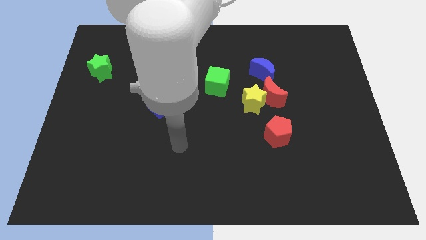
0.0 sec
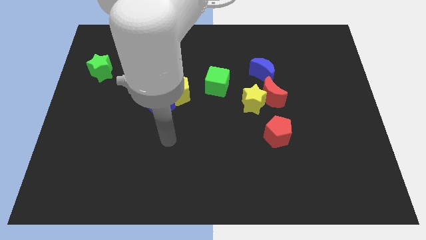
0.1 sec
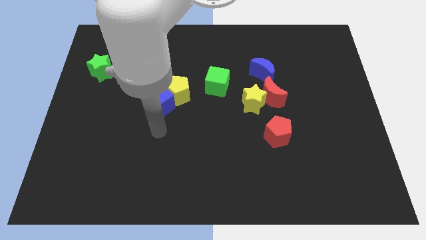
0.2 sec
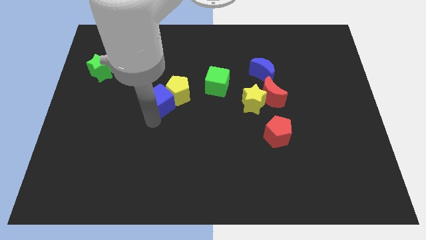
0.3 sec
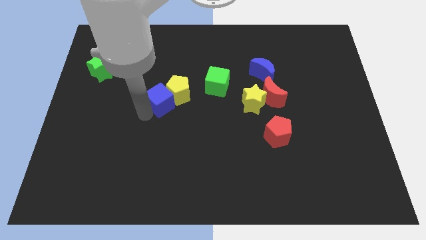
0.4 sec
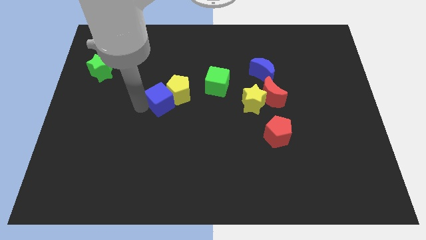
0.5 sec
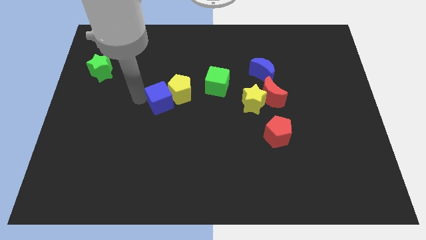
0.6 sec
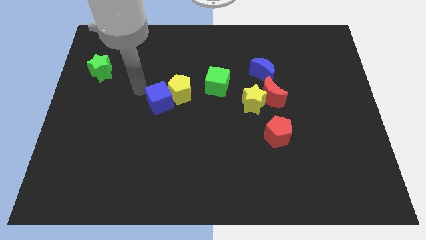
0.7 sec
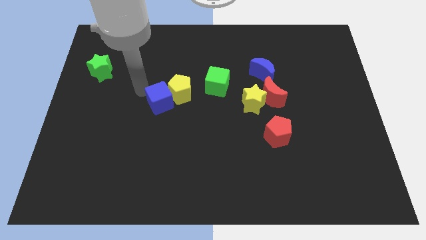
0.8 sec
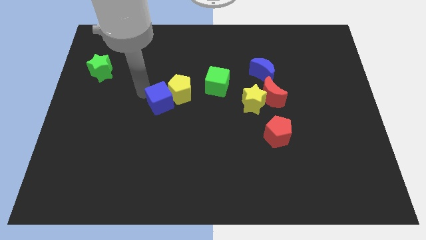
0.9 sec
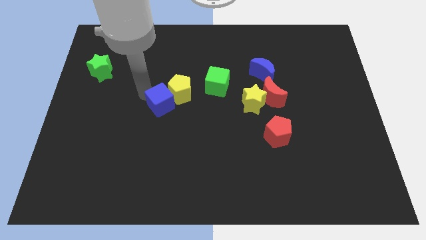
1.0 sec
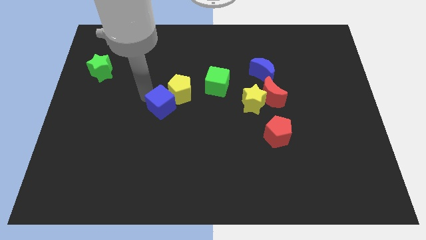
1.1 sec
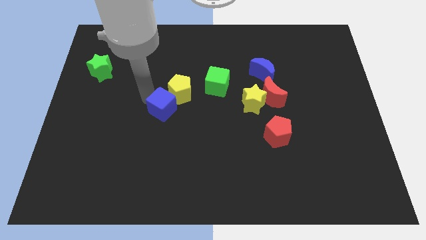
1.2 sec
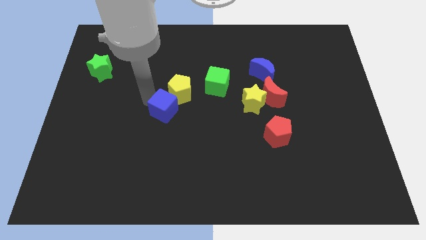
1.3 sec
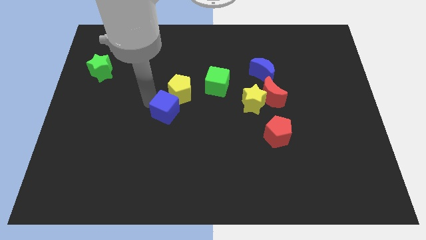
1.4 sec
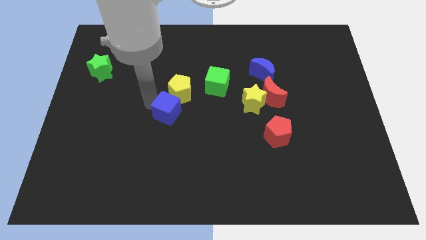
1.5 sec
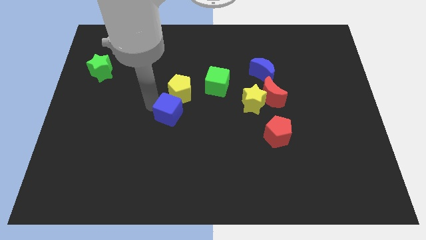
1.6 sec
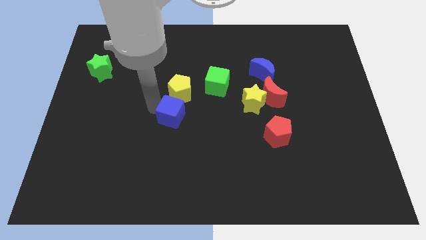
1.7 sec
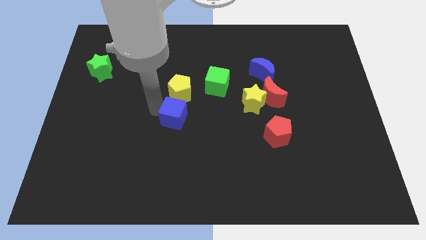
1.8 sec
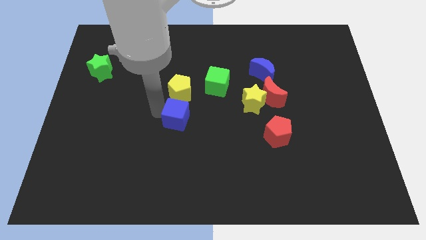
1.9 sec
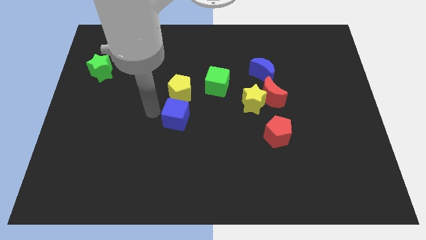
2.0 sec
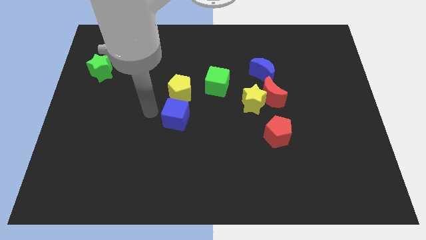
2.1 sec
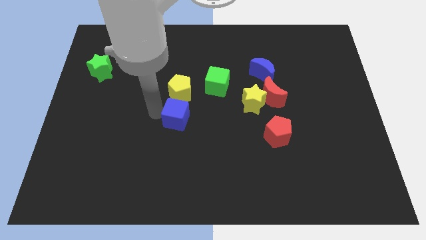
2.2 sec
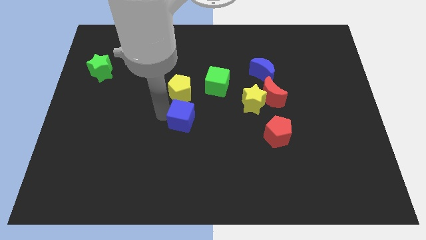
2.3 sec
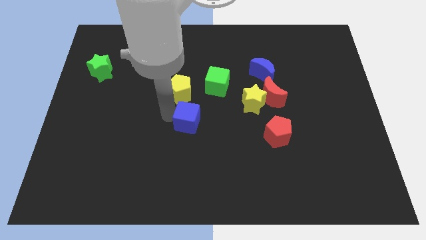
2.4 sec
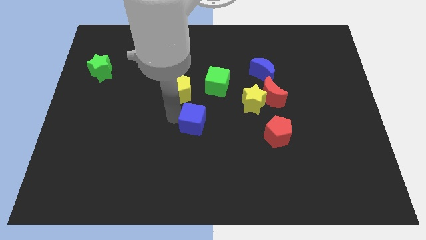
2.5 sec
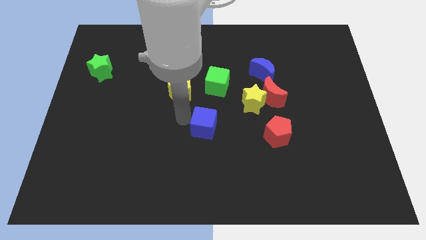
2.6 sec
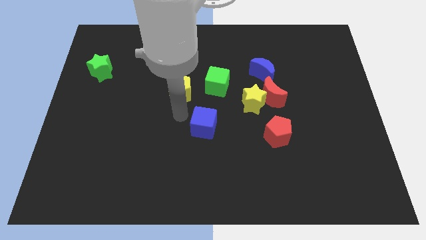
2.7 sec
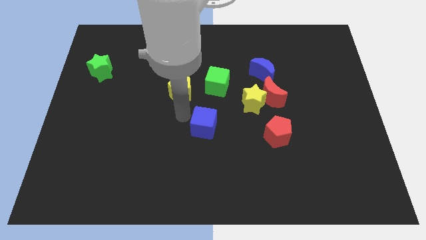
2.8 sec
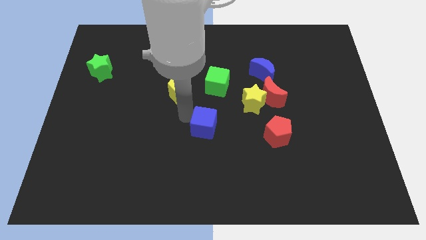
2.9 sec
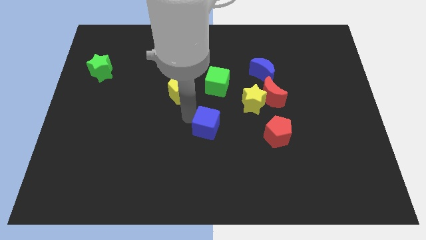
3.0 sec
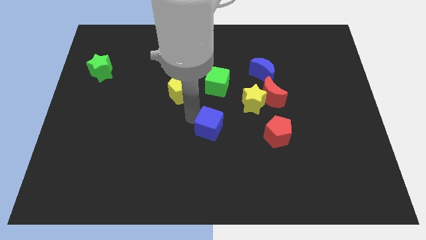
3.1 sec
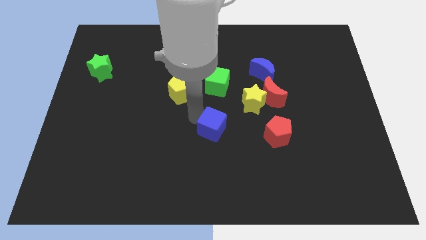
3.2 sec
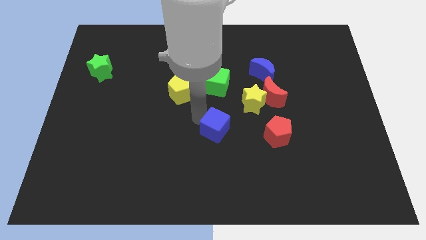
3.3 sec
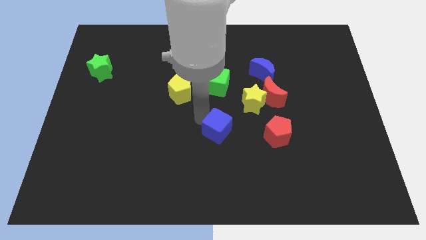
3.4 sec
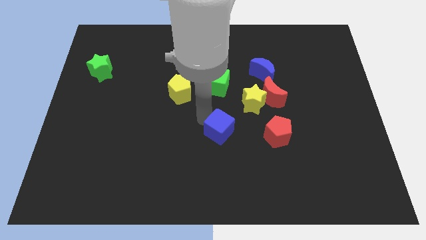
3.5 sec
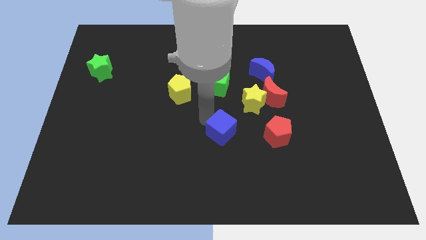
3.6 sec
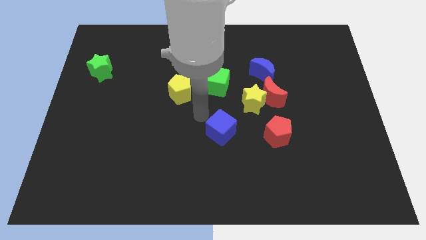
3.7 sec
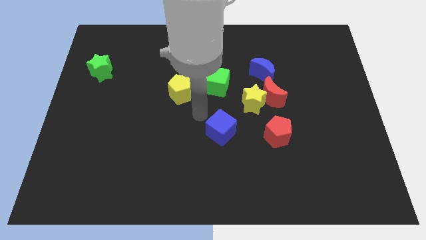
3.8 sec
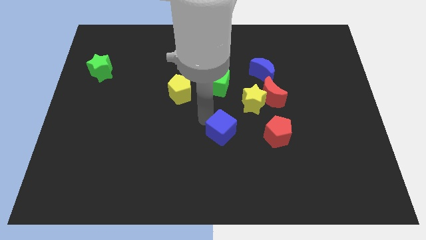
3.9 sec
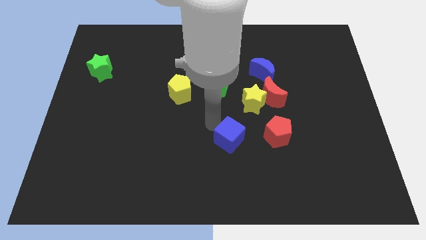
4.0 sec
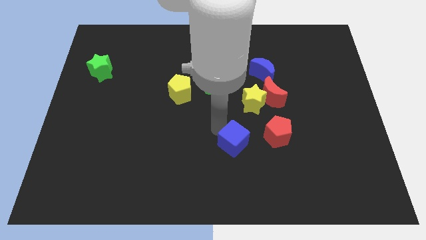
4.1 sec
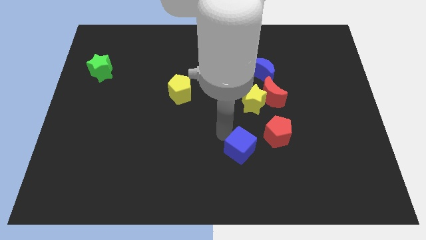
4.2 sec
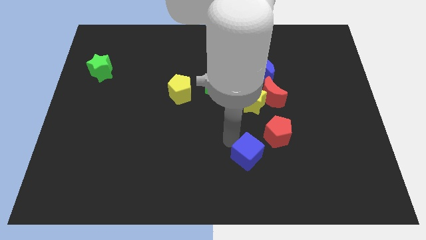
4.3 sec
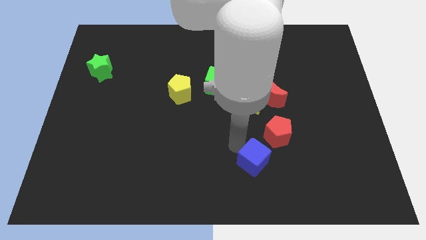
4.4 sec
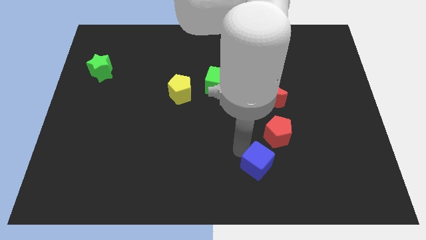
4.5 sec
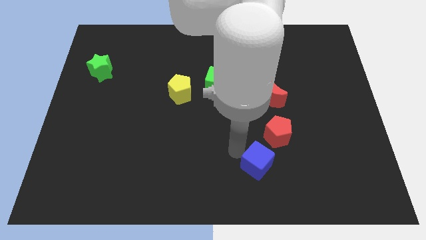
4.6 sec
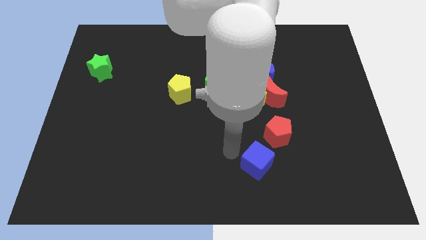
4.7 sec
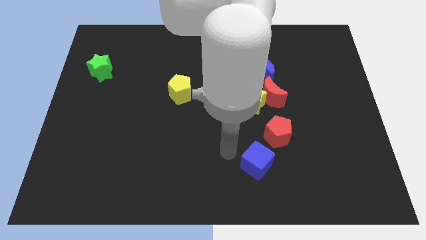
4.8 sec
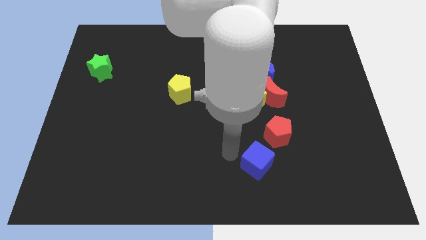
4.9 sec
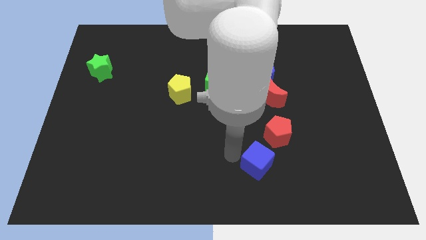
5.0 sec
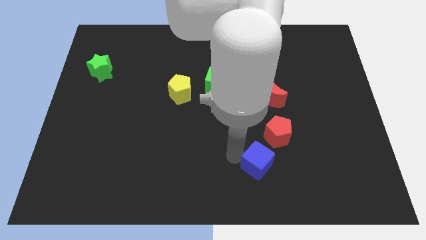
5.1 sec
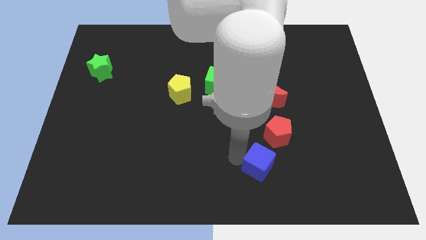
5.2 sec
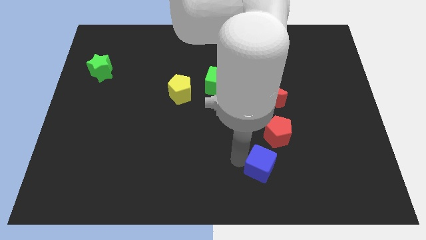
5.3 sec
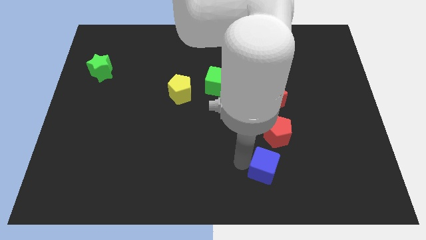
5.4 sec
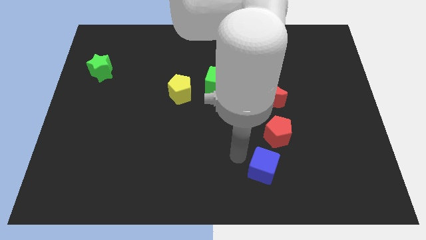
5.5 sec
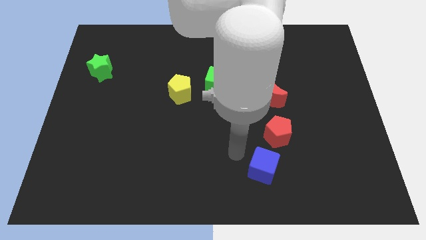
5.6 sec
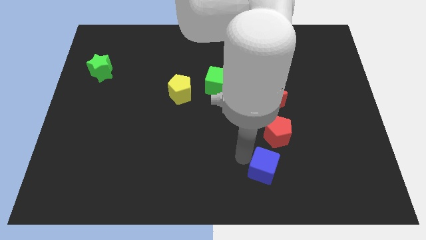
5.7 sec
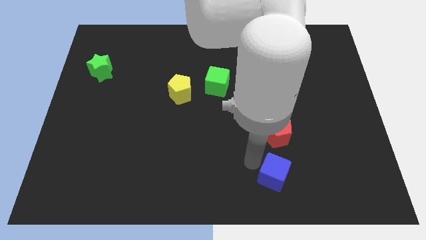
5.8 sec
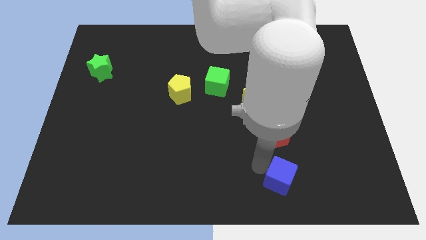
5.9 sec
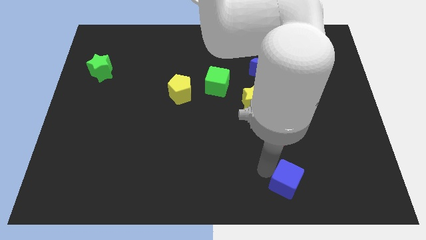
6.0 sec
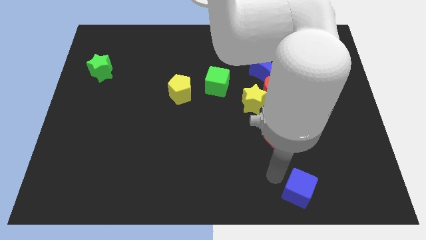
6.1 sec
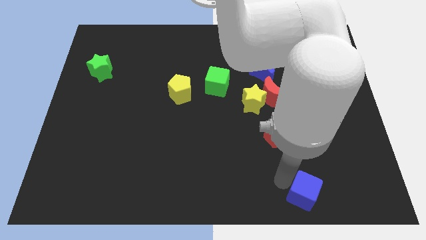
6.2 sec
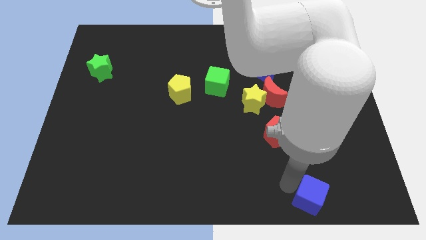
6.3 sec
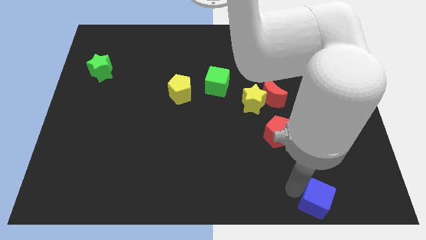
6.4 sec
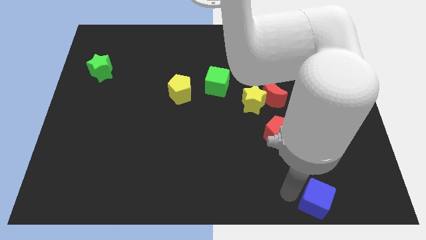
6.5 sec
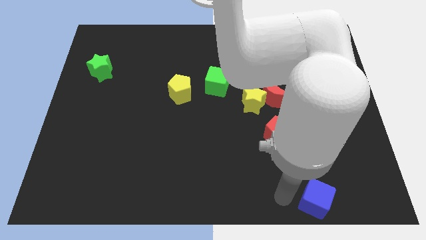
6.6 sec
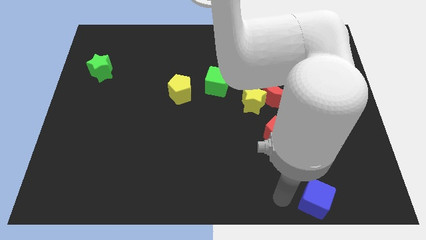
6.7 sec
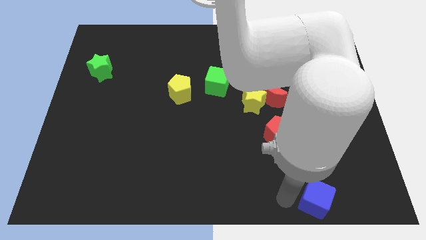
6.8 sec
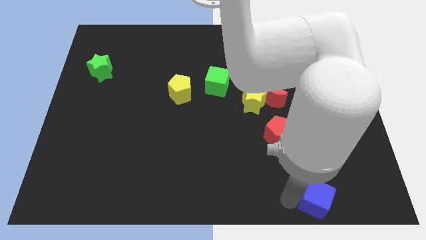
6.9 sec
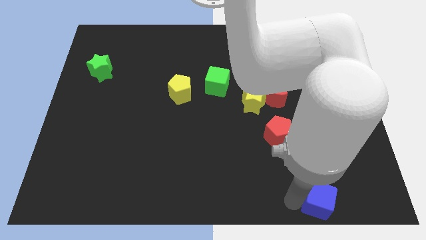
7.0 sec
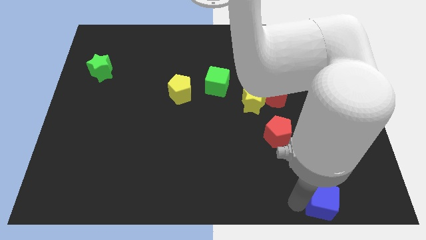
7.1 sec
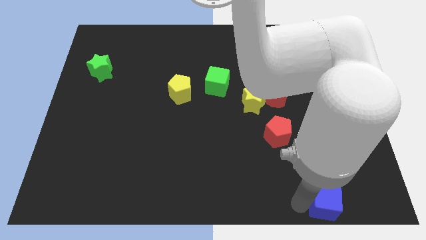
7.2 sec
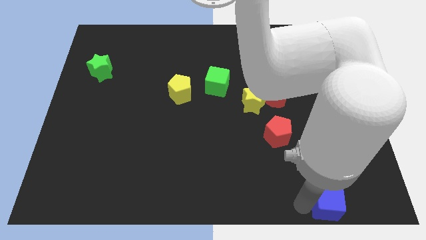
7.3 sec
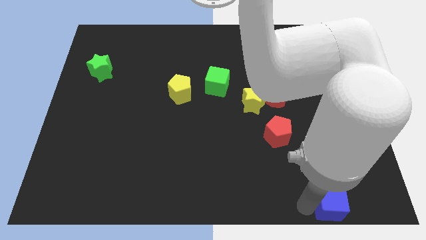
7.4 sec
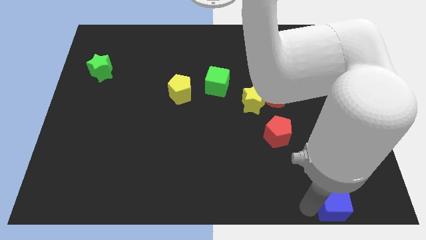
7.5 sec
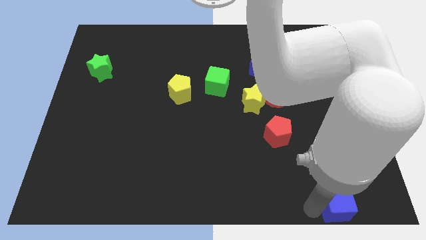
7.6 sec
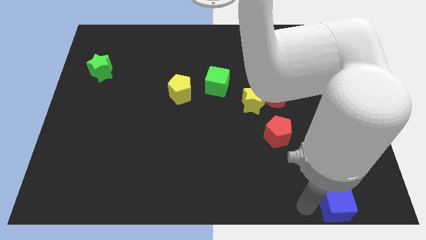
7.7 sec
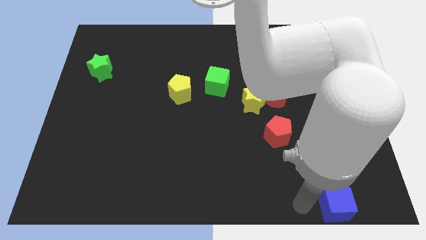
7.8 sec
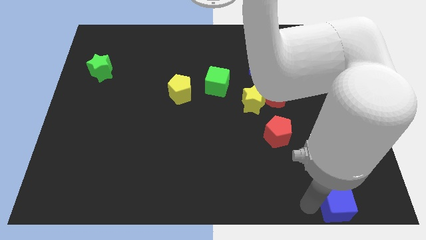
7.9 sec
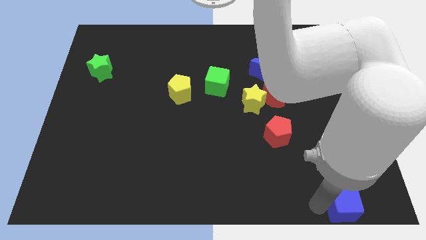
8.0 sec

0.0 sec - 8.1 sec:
put the blue cube to the lower right corner
